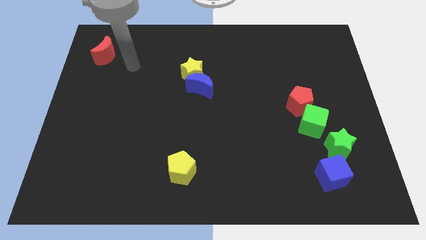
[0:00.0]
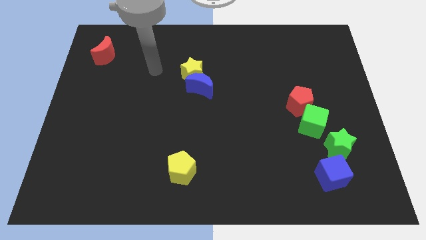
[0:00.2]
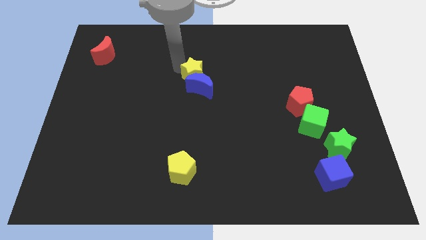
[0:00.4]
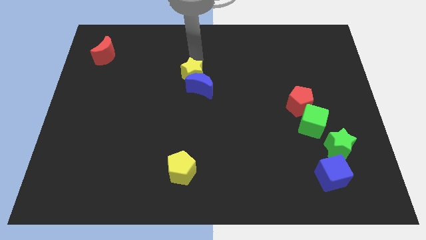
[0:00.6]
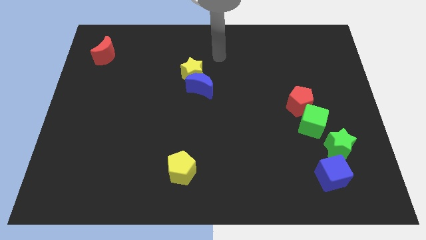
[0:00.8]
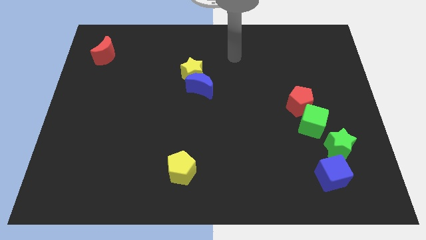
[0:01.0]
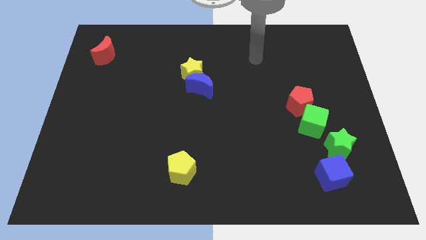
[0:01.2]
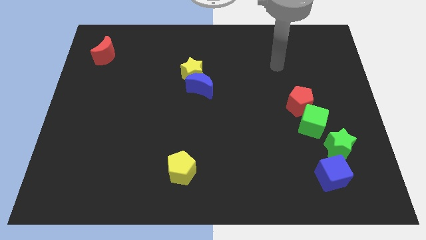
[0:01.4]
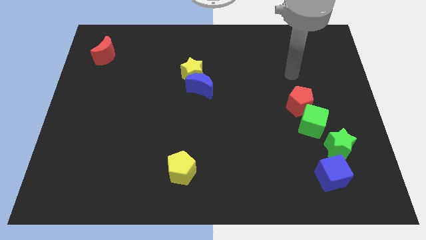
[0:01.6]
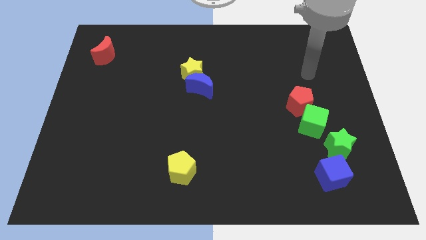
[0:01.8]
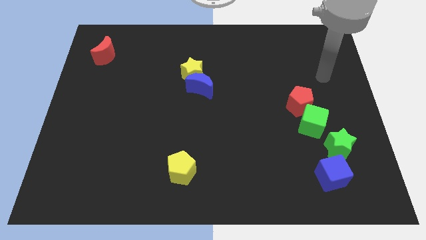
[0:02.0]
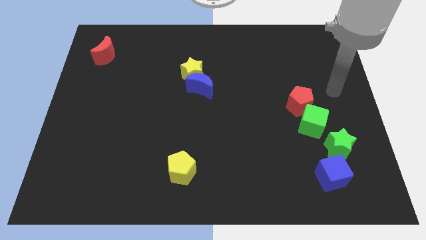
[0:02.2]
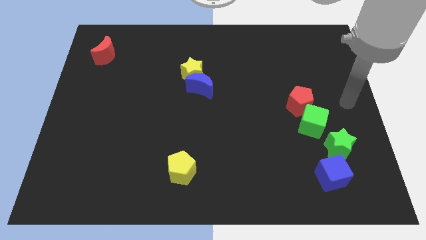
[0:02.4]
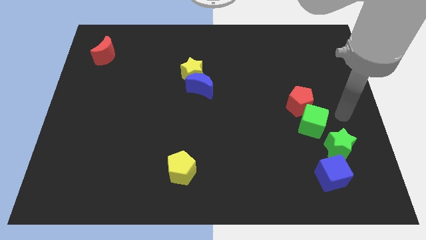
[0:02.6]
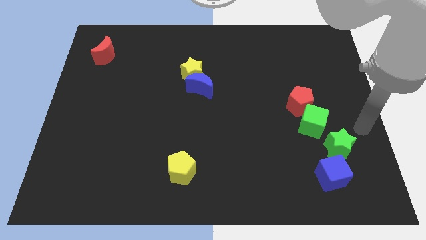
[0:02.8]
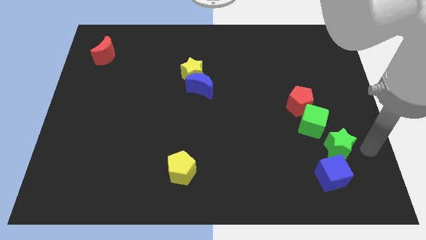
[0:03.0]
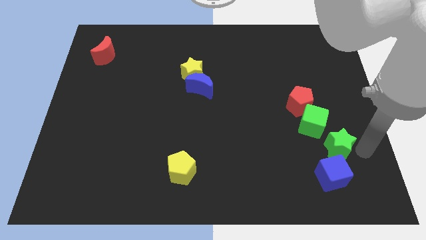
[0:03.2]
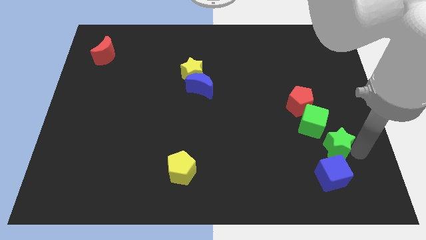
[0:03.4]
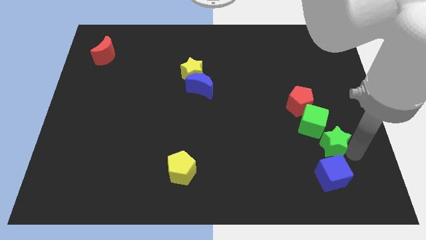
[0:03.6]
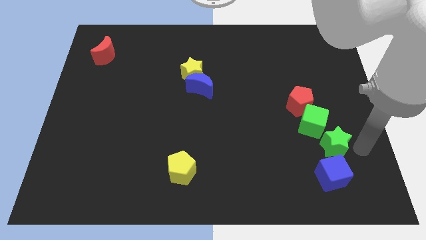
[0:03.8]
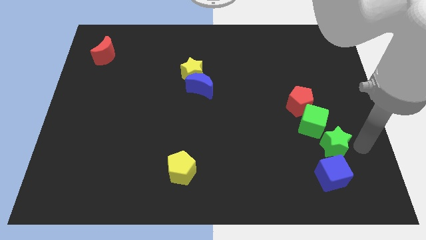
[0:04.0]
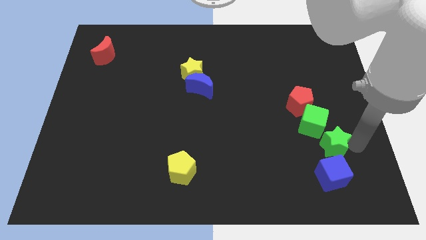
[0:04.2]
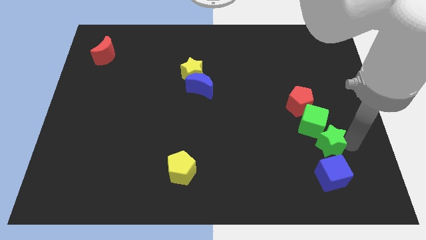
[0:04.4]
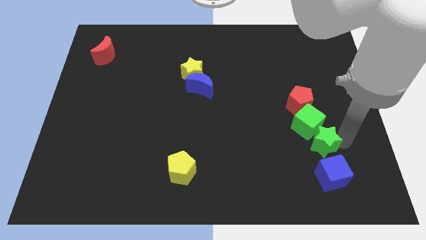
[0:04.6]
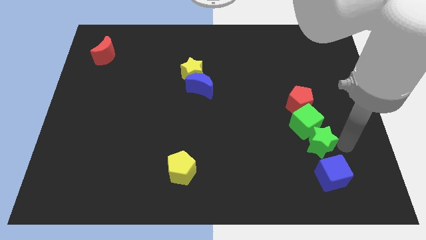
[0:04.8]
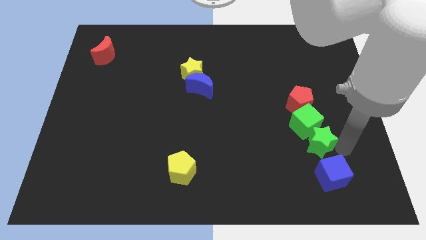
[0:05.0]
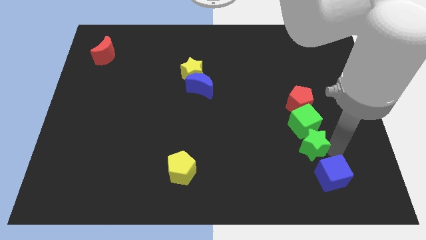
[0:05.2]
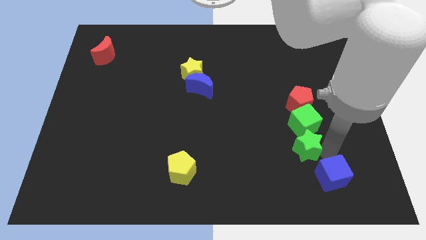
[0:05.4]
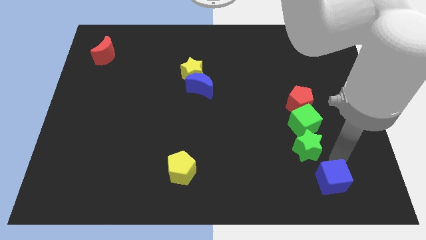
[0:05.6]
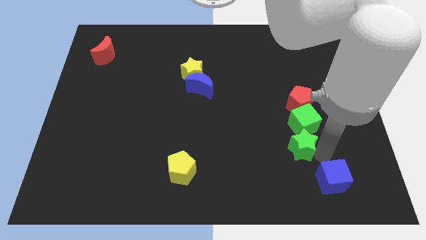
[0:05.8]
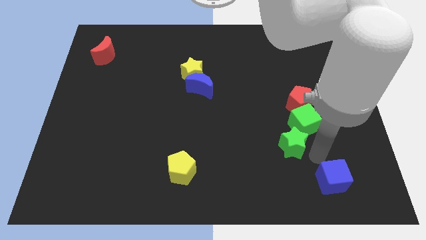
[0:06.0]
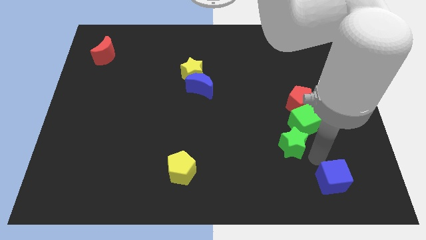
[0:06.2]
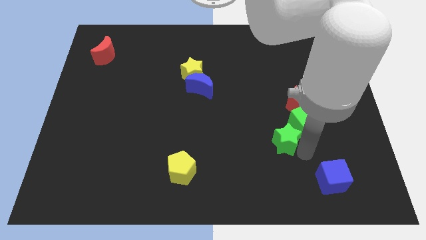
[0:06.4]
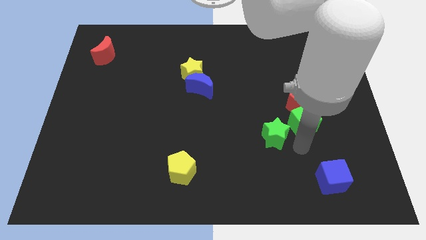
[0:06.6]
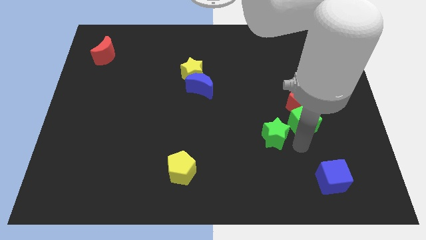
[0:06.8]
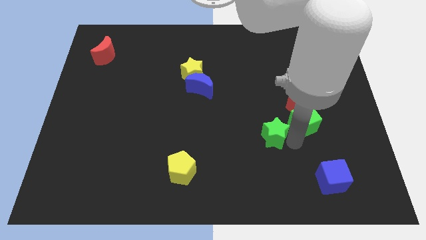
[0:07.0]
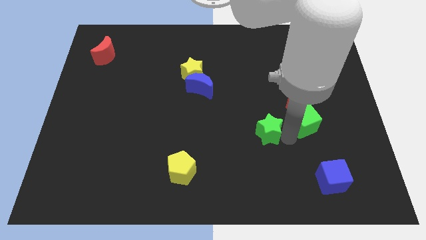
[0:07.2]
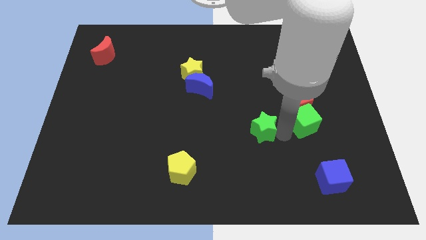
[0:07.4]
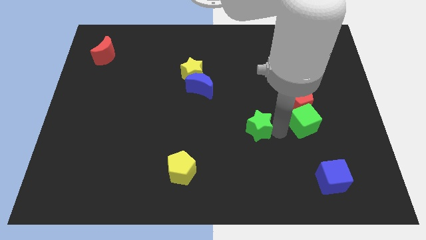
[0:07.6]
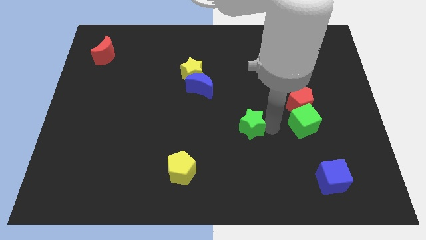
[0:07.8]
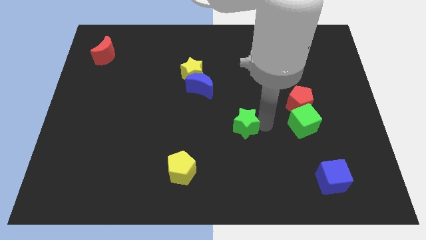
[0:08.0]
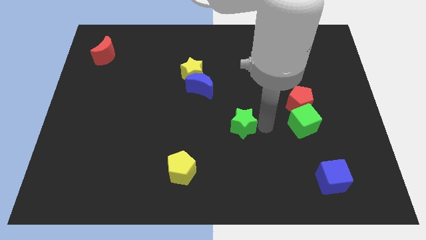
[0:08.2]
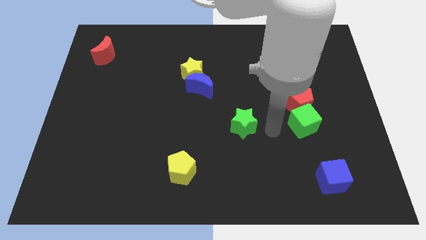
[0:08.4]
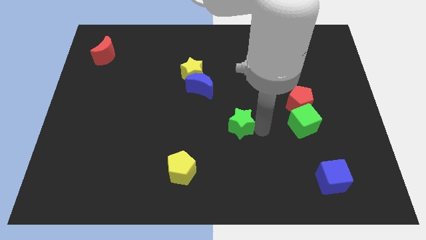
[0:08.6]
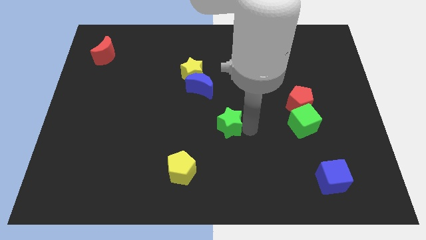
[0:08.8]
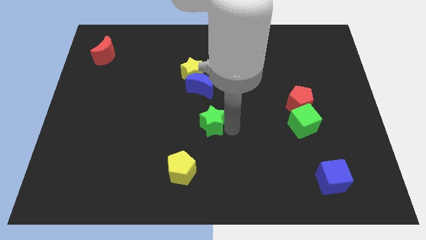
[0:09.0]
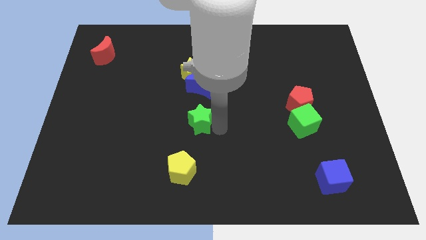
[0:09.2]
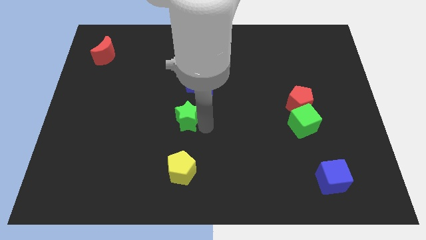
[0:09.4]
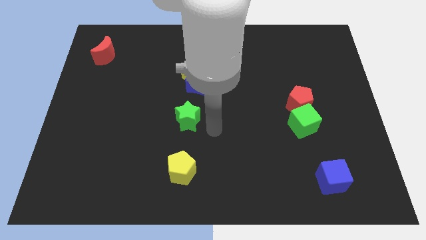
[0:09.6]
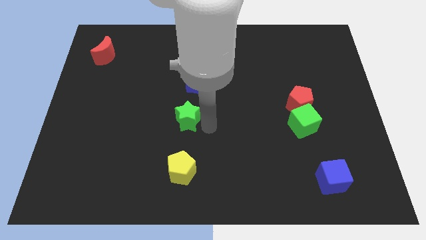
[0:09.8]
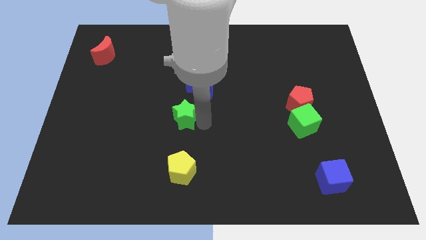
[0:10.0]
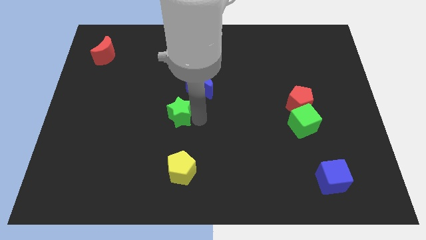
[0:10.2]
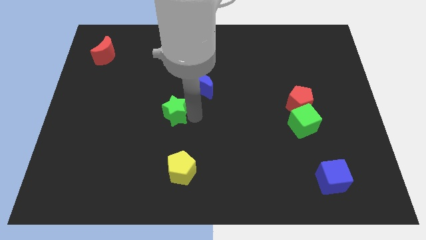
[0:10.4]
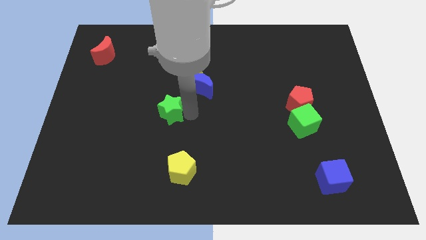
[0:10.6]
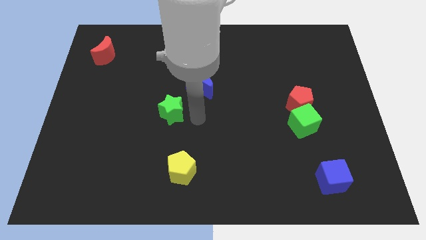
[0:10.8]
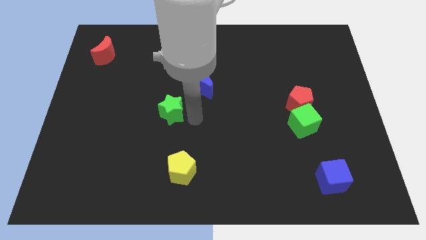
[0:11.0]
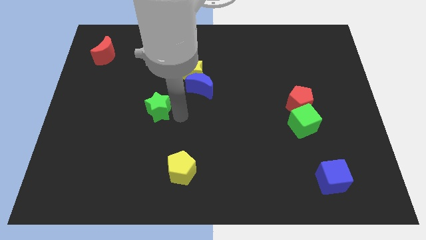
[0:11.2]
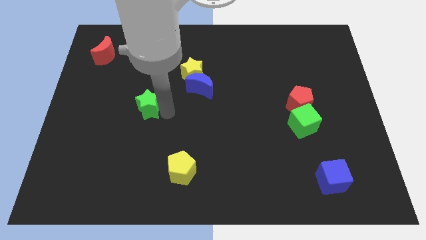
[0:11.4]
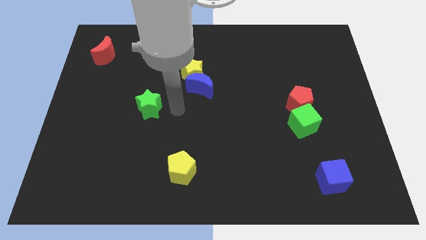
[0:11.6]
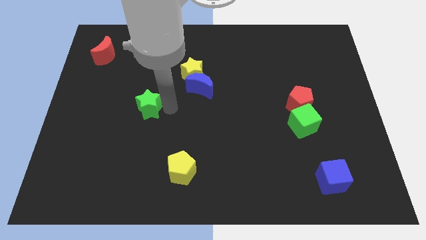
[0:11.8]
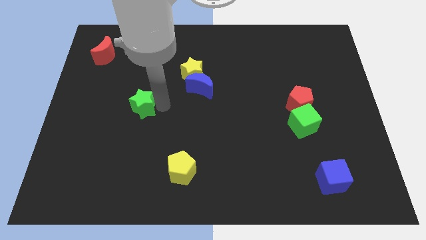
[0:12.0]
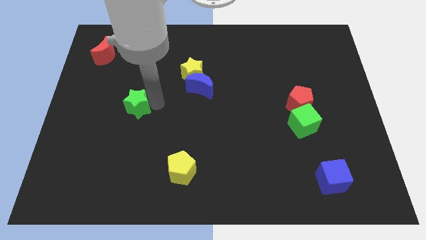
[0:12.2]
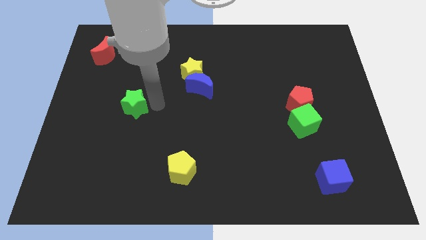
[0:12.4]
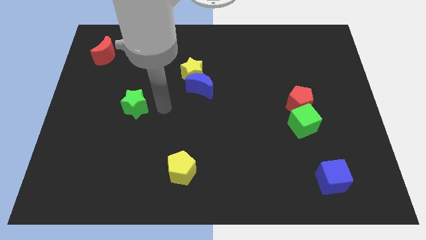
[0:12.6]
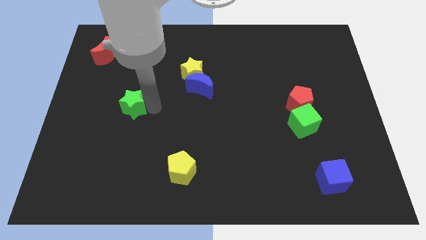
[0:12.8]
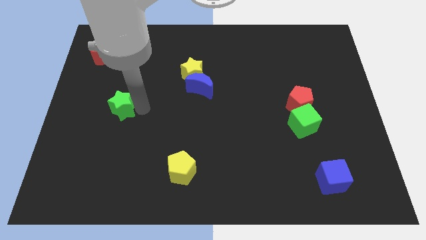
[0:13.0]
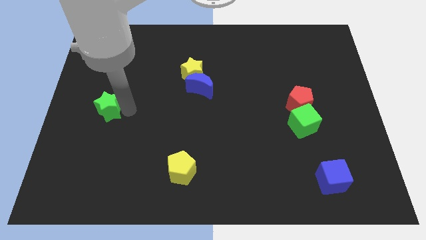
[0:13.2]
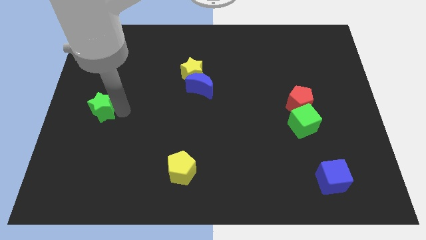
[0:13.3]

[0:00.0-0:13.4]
put the green star to the left side of the board
